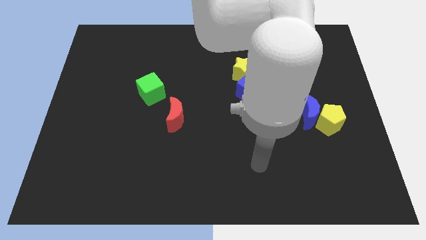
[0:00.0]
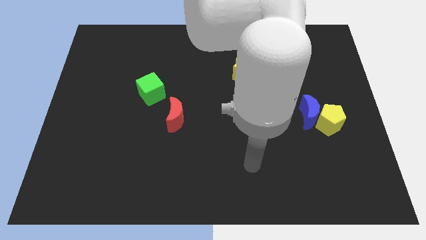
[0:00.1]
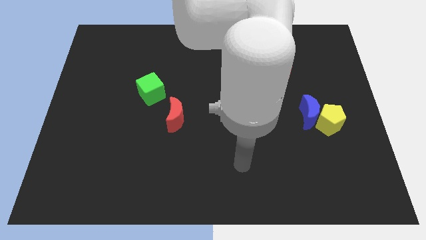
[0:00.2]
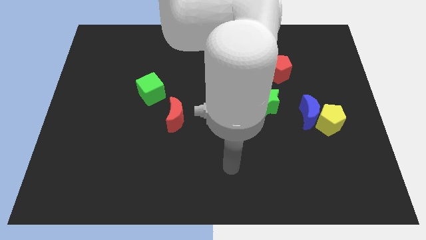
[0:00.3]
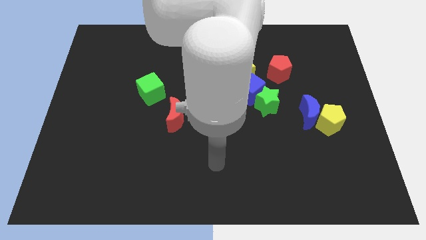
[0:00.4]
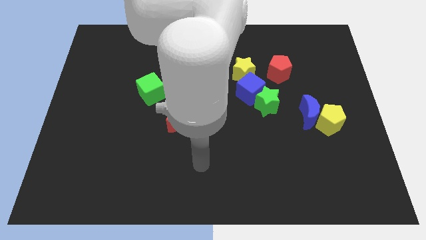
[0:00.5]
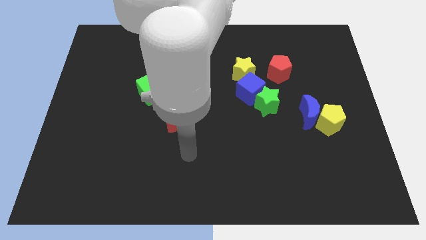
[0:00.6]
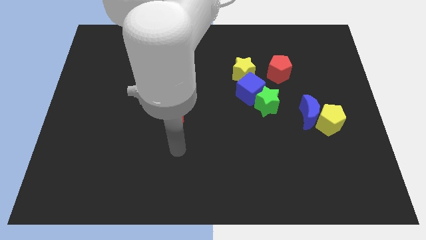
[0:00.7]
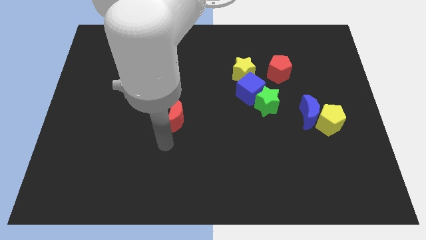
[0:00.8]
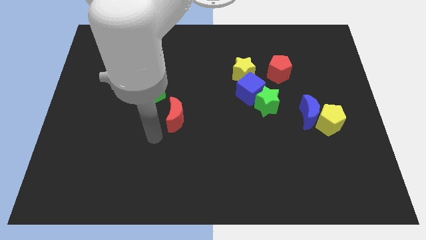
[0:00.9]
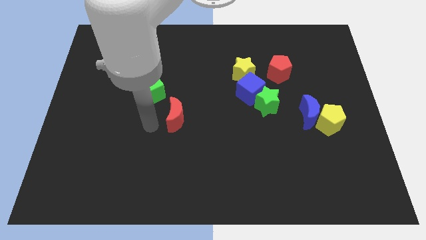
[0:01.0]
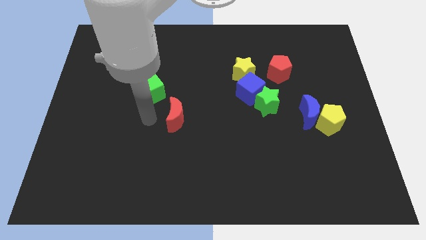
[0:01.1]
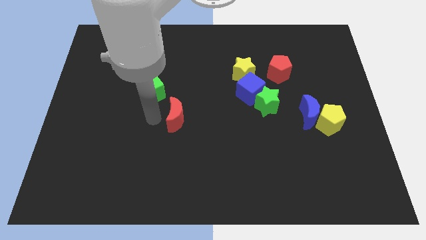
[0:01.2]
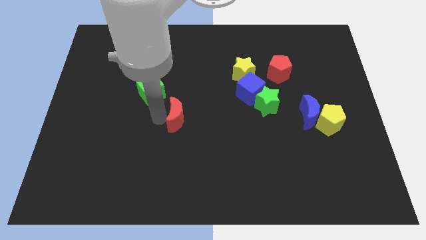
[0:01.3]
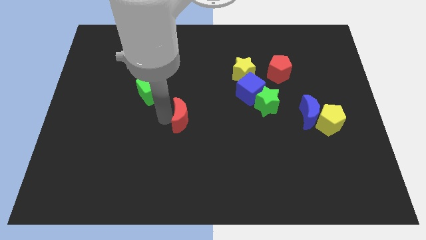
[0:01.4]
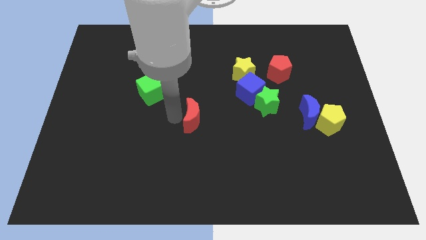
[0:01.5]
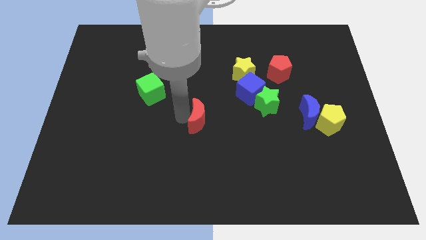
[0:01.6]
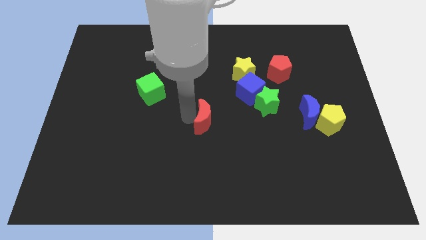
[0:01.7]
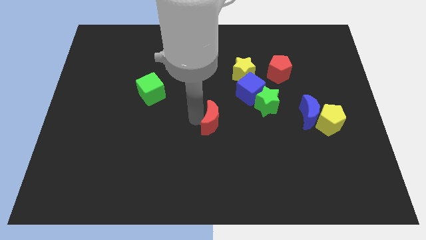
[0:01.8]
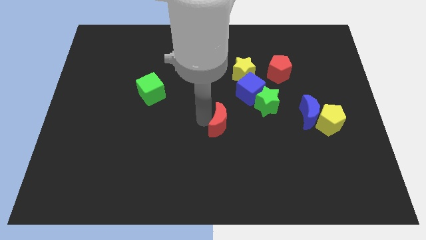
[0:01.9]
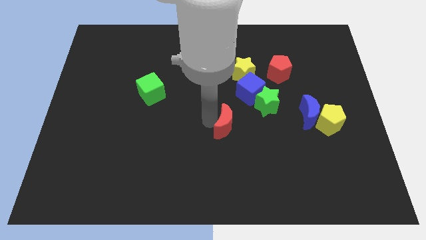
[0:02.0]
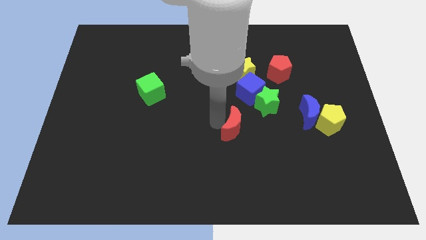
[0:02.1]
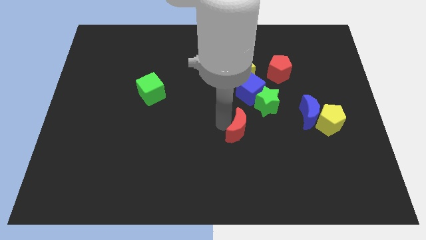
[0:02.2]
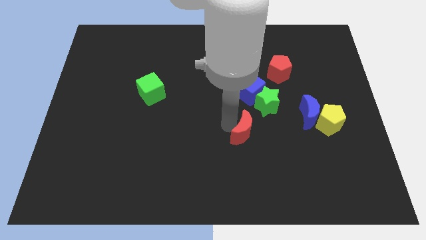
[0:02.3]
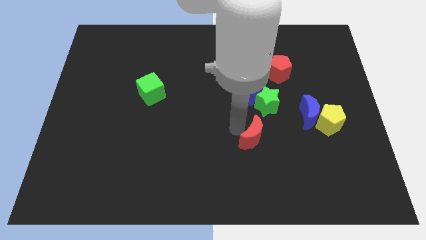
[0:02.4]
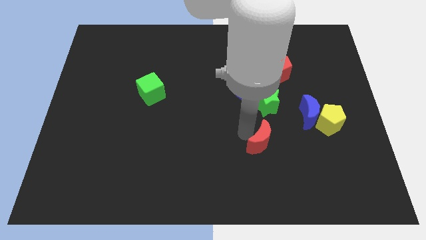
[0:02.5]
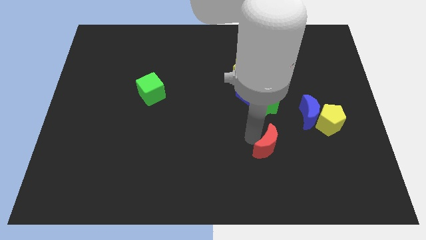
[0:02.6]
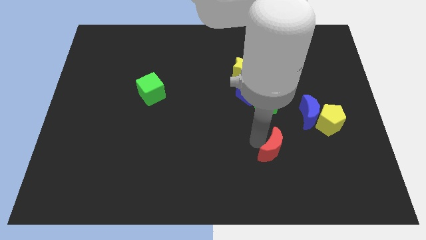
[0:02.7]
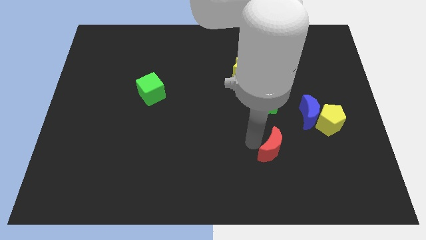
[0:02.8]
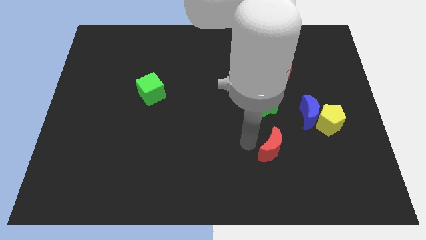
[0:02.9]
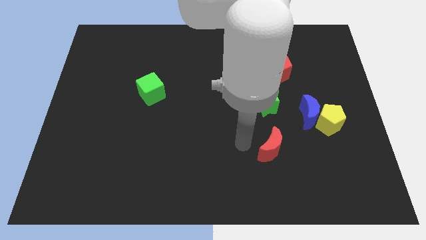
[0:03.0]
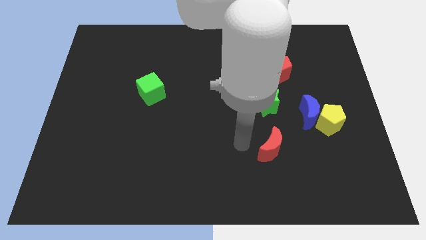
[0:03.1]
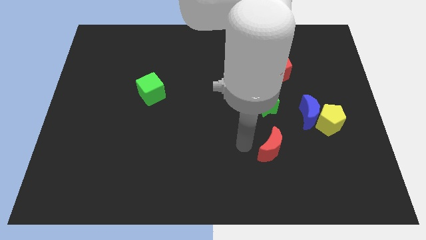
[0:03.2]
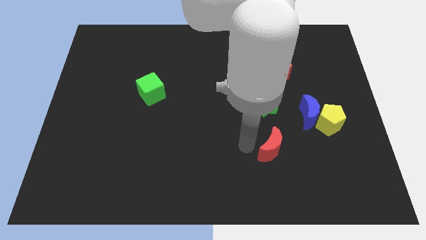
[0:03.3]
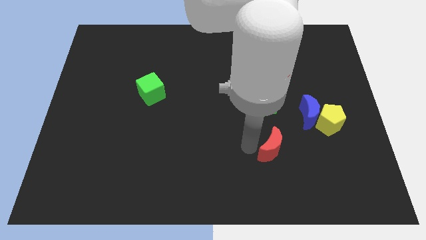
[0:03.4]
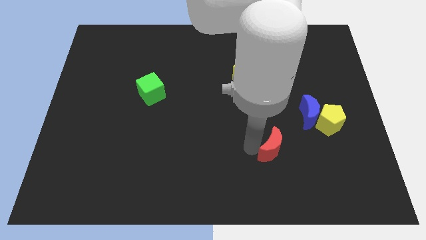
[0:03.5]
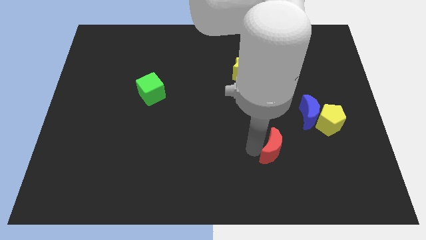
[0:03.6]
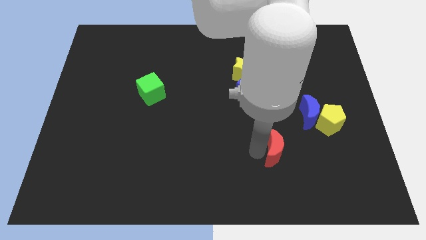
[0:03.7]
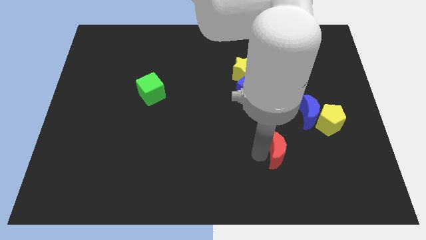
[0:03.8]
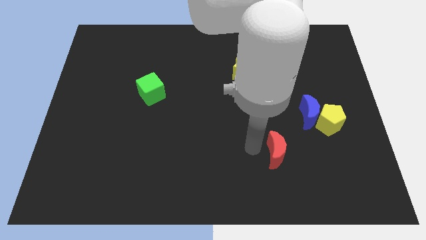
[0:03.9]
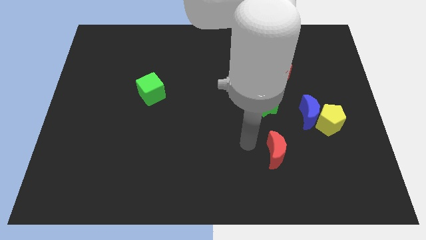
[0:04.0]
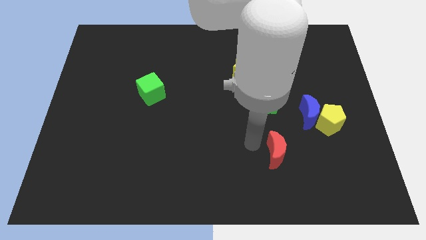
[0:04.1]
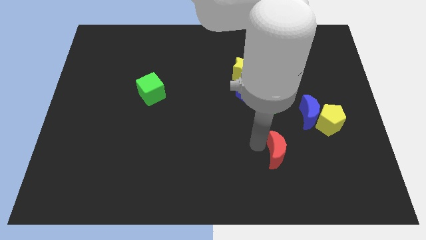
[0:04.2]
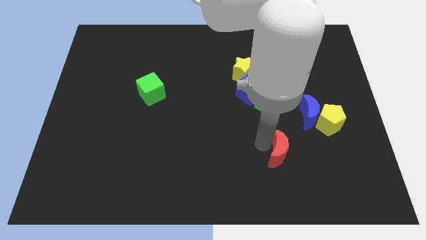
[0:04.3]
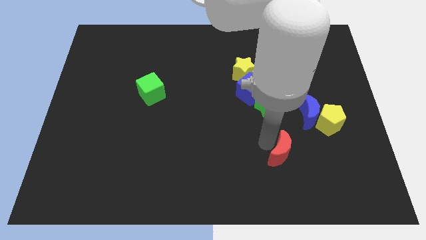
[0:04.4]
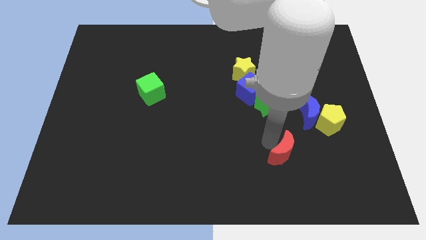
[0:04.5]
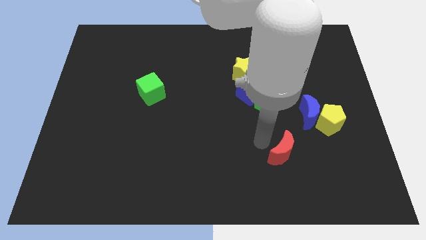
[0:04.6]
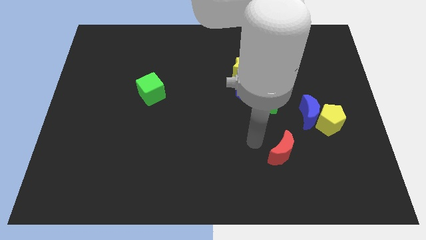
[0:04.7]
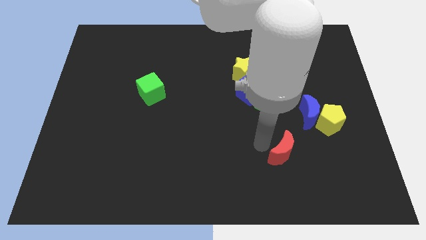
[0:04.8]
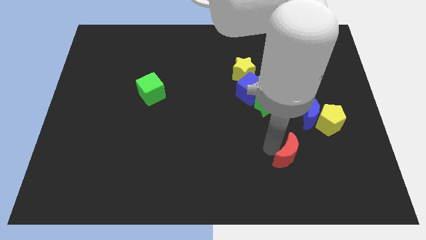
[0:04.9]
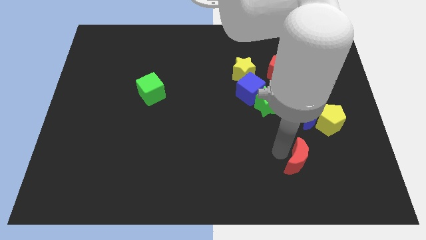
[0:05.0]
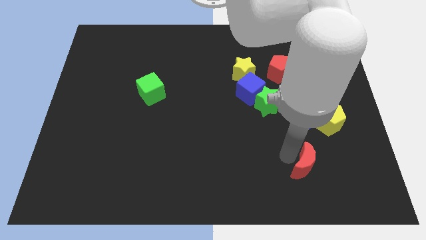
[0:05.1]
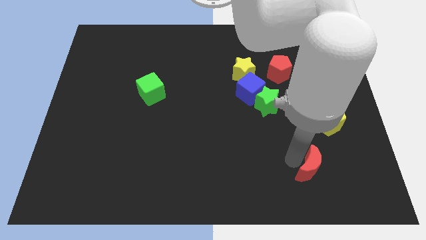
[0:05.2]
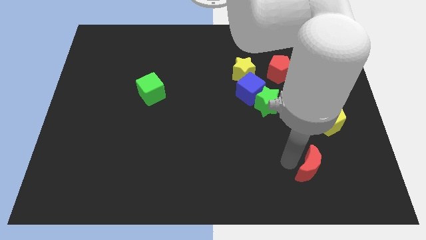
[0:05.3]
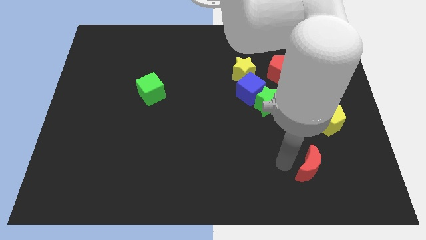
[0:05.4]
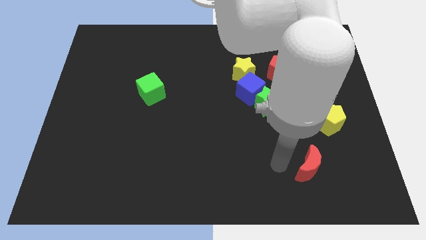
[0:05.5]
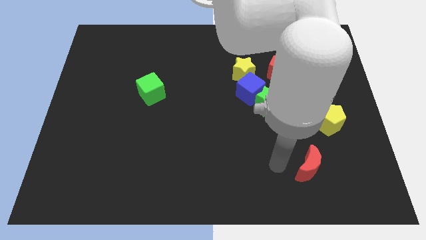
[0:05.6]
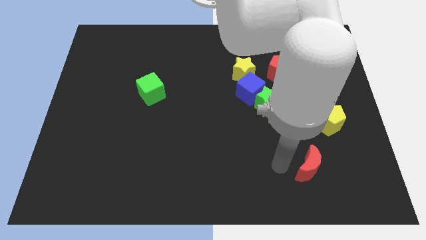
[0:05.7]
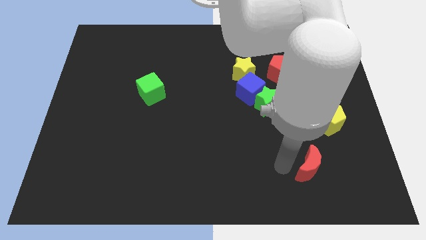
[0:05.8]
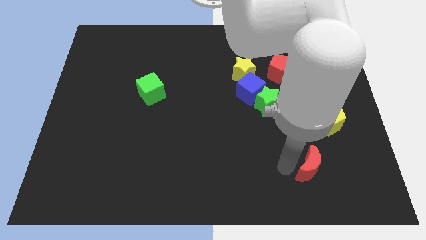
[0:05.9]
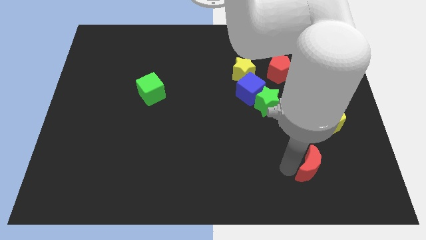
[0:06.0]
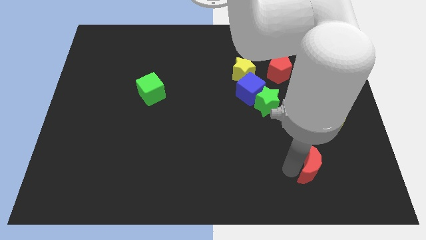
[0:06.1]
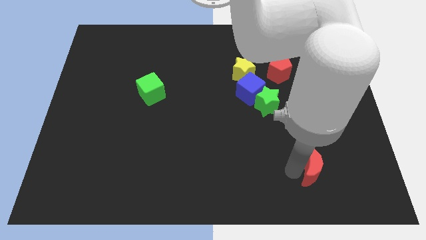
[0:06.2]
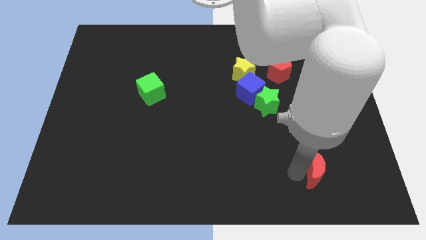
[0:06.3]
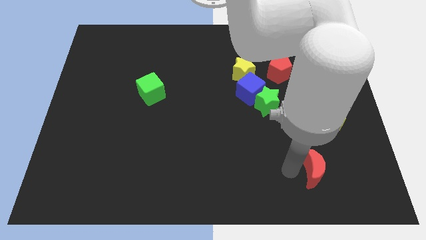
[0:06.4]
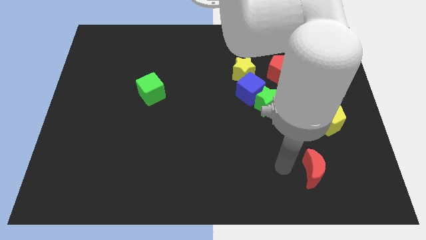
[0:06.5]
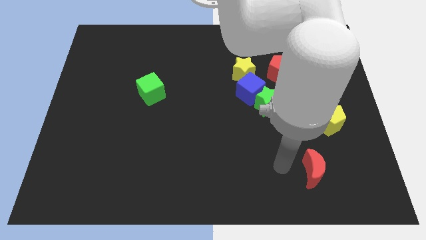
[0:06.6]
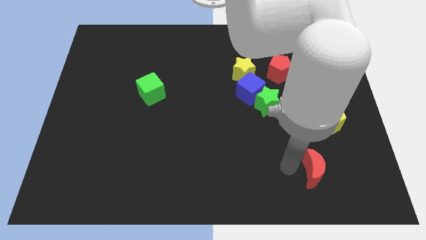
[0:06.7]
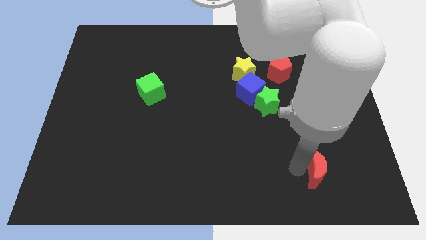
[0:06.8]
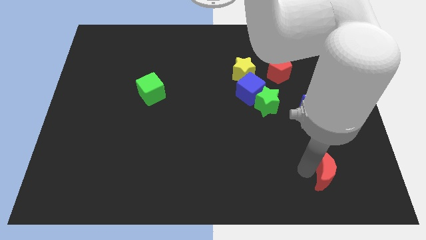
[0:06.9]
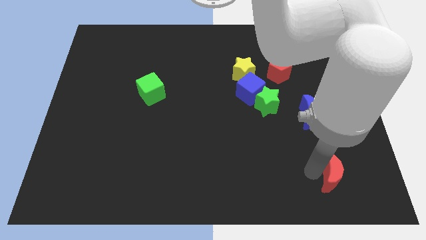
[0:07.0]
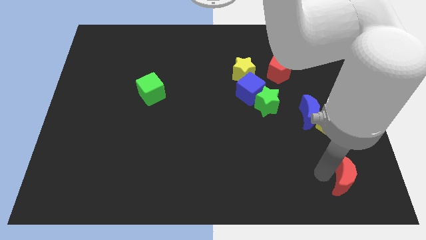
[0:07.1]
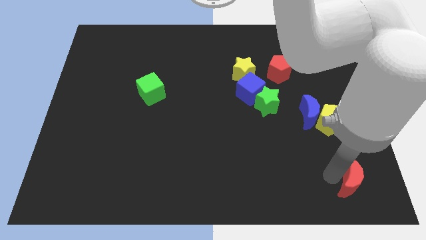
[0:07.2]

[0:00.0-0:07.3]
slide the red moon to the bottom right corner
